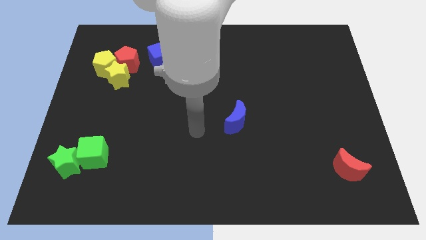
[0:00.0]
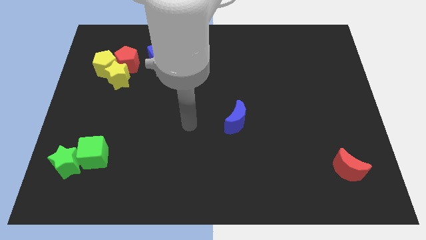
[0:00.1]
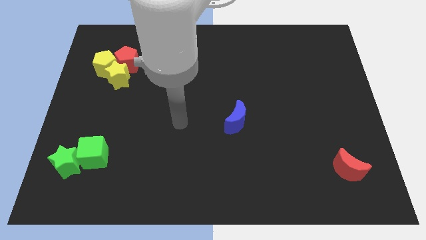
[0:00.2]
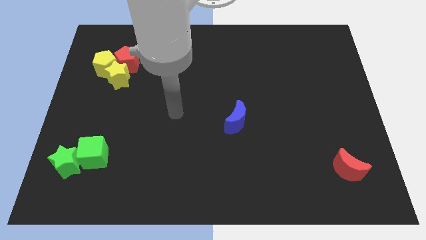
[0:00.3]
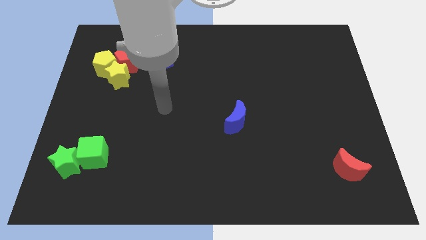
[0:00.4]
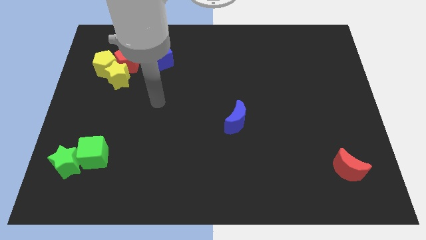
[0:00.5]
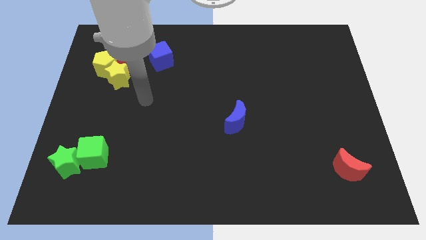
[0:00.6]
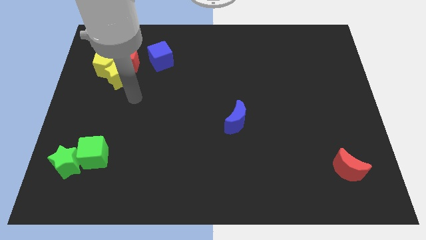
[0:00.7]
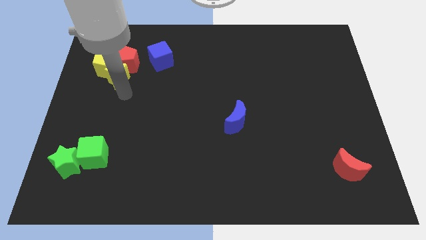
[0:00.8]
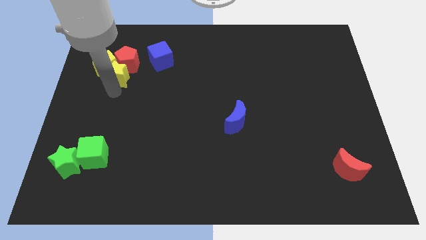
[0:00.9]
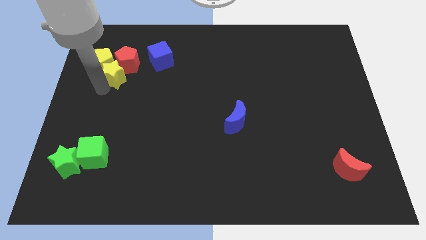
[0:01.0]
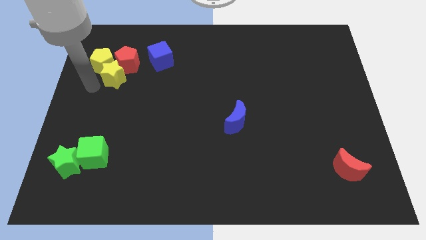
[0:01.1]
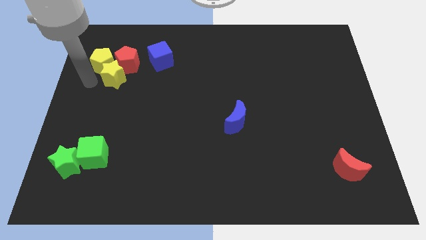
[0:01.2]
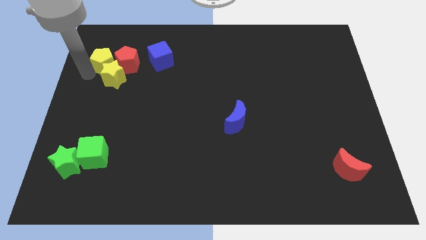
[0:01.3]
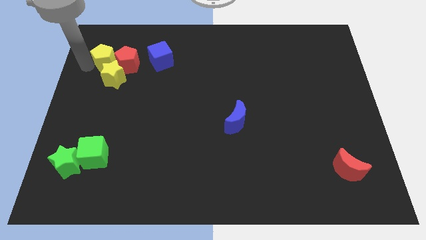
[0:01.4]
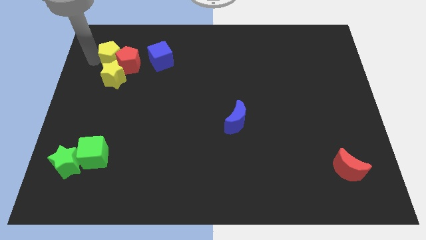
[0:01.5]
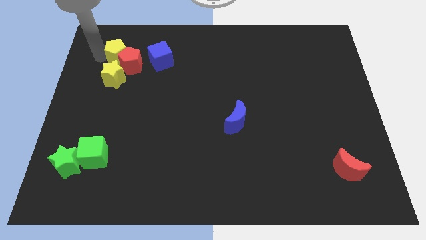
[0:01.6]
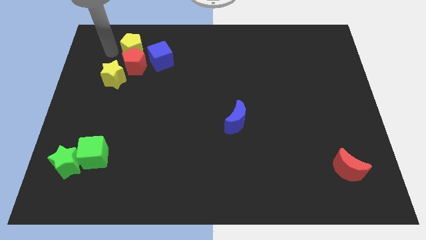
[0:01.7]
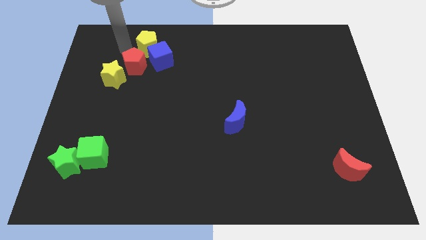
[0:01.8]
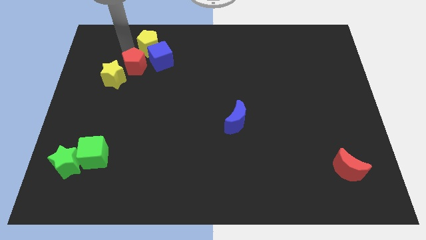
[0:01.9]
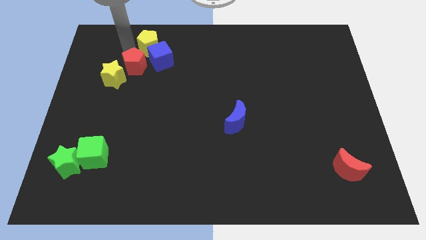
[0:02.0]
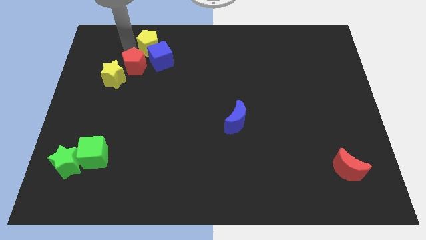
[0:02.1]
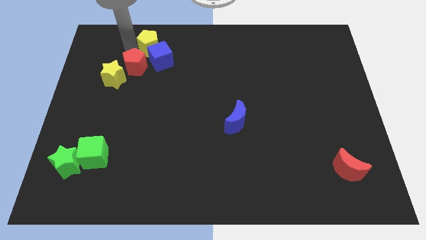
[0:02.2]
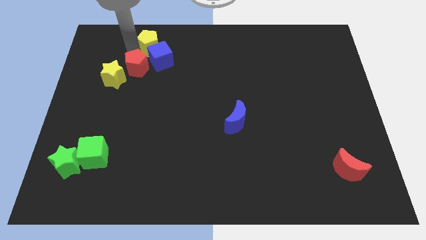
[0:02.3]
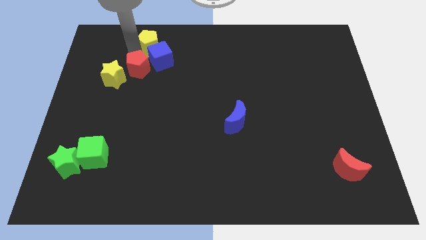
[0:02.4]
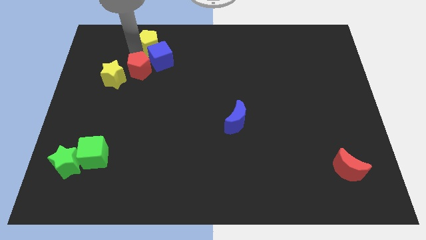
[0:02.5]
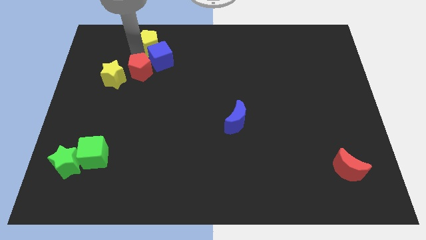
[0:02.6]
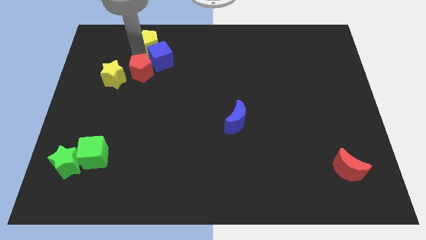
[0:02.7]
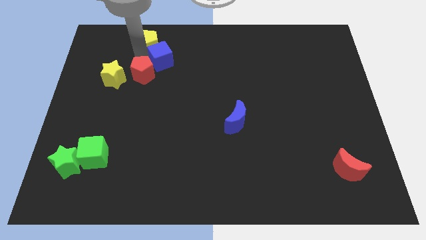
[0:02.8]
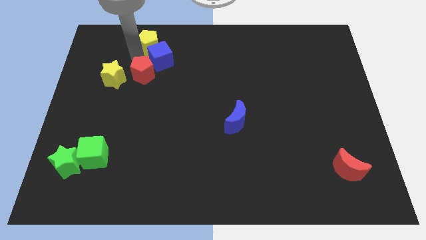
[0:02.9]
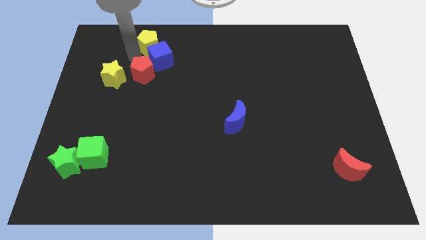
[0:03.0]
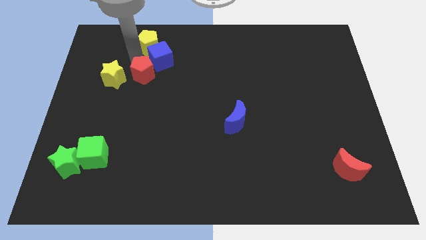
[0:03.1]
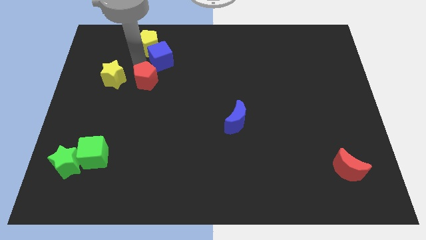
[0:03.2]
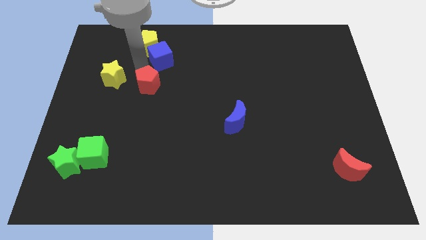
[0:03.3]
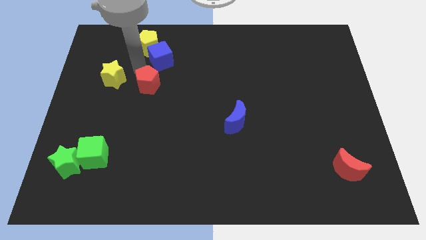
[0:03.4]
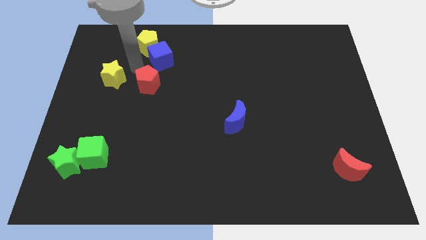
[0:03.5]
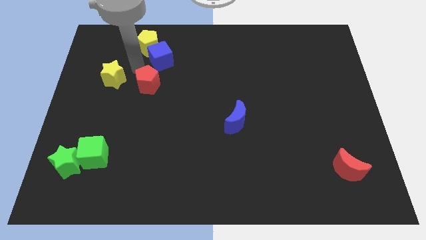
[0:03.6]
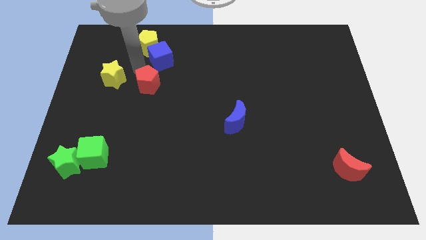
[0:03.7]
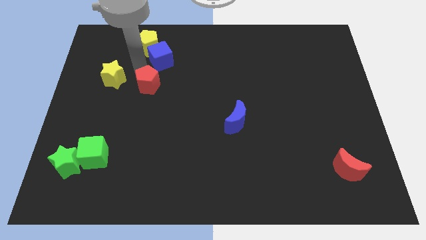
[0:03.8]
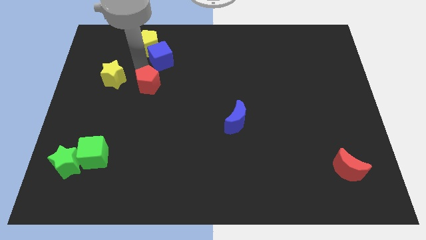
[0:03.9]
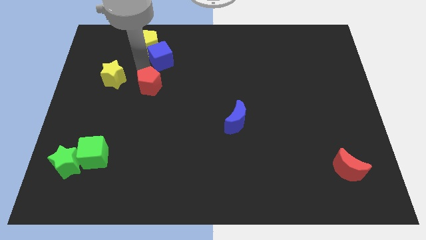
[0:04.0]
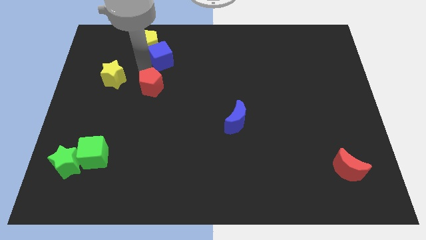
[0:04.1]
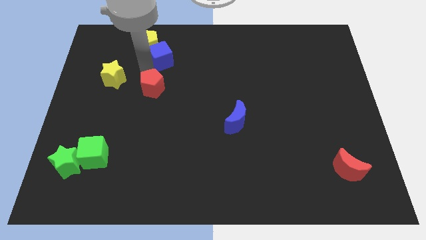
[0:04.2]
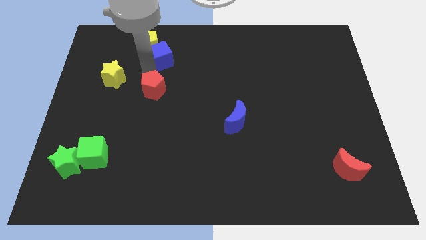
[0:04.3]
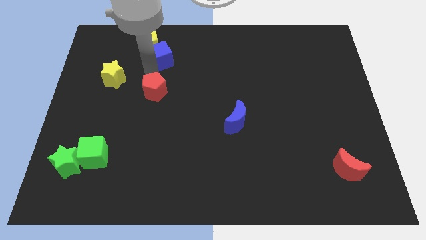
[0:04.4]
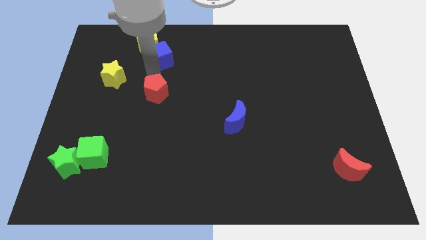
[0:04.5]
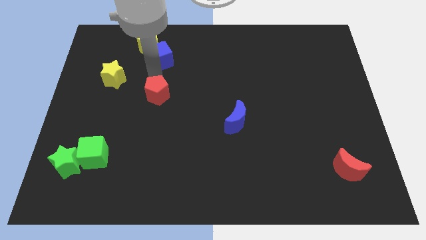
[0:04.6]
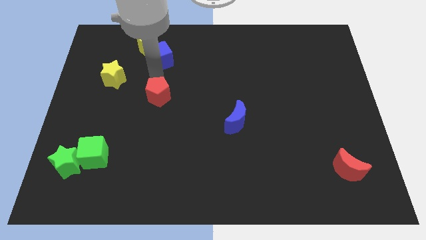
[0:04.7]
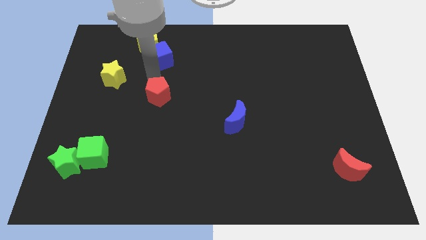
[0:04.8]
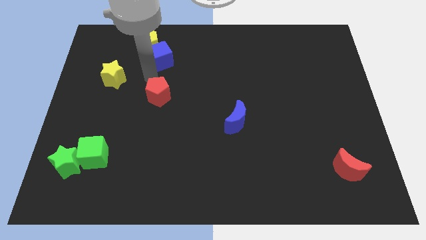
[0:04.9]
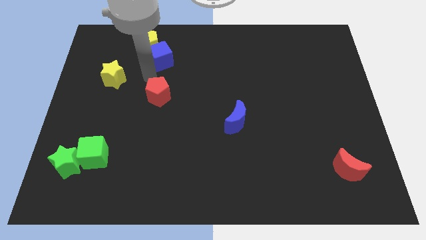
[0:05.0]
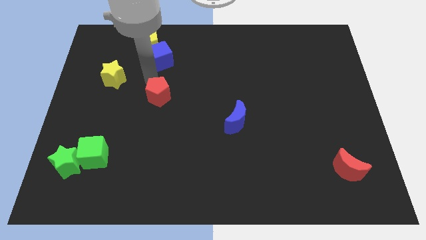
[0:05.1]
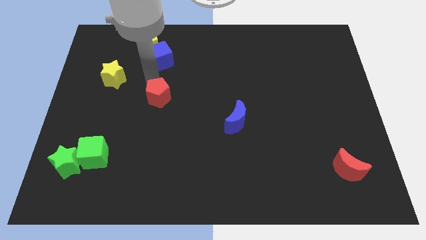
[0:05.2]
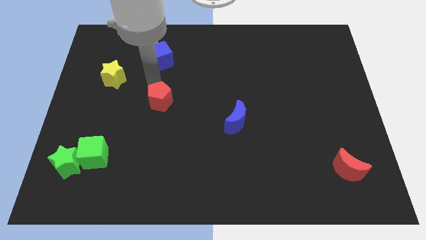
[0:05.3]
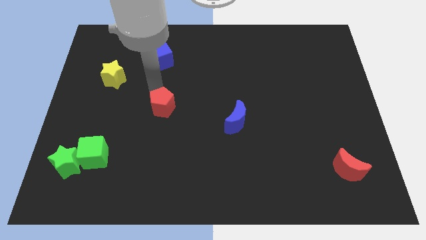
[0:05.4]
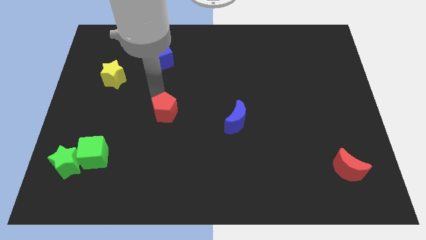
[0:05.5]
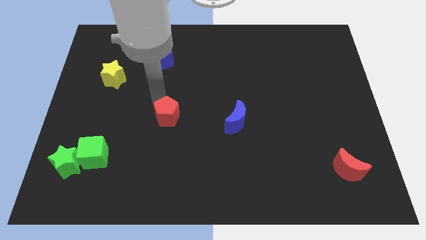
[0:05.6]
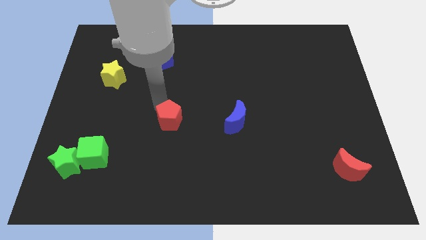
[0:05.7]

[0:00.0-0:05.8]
slide the red pentagon downwards and right

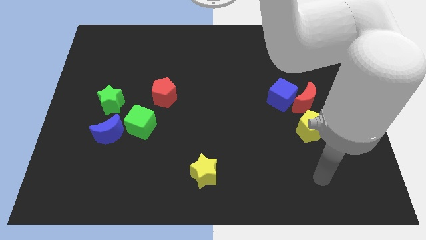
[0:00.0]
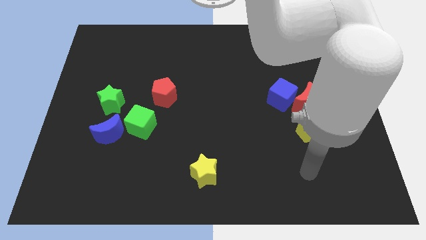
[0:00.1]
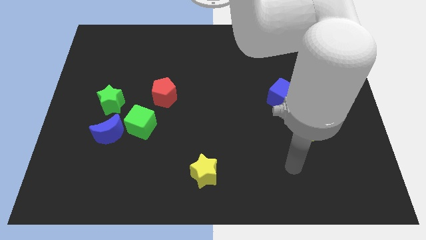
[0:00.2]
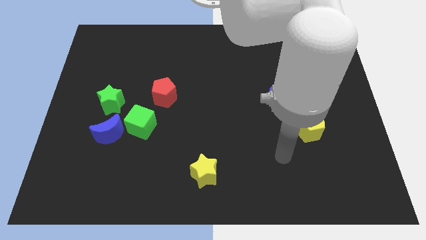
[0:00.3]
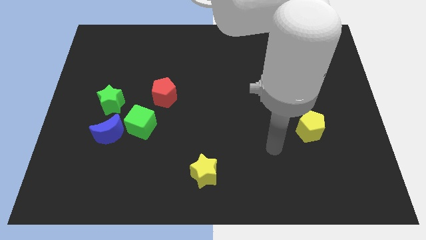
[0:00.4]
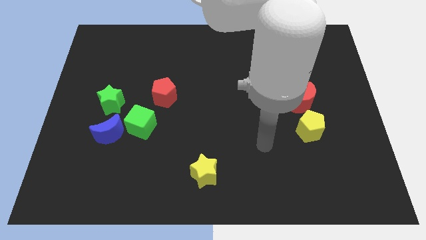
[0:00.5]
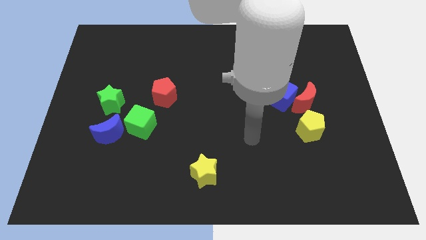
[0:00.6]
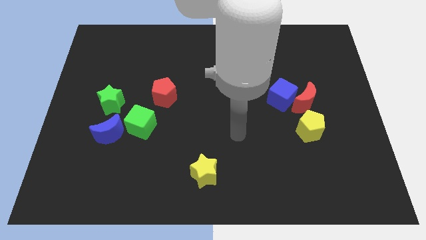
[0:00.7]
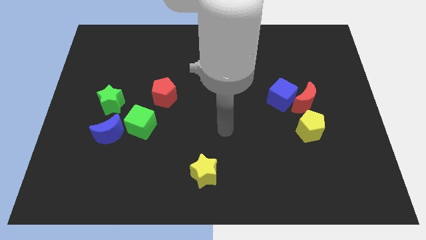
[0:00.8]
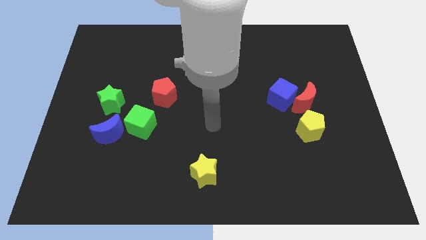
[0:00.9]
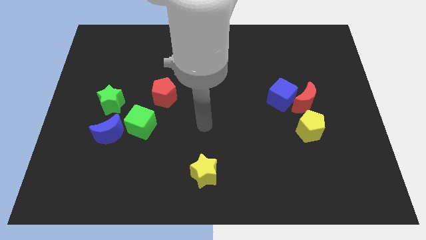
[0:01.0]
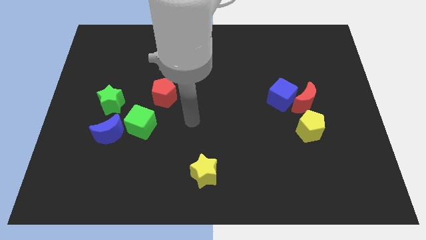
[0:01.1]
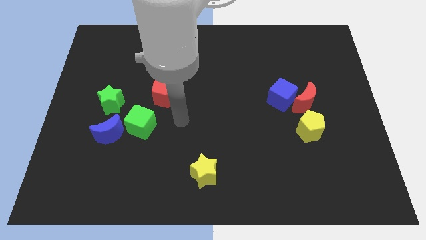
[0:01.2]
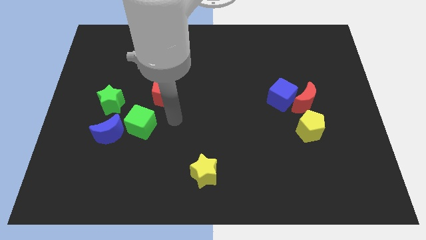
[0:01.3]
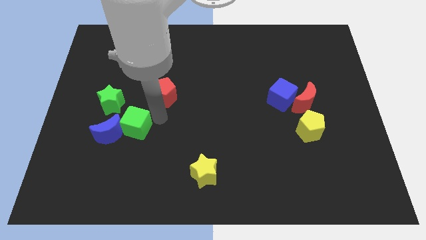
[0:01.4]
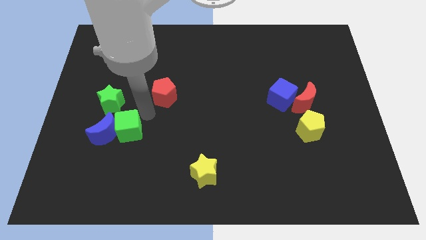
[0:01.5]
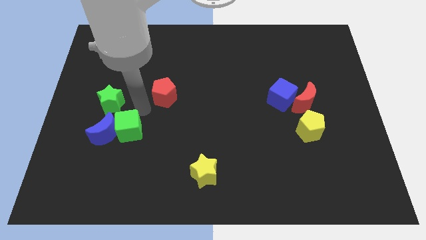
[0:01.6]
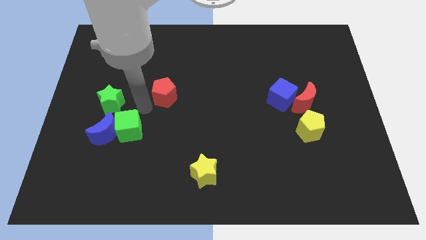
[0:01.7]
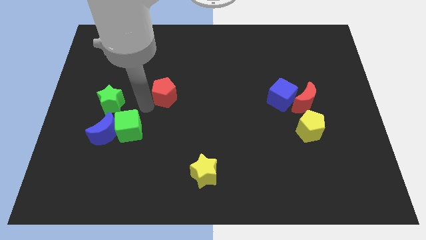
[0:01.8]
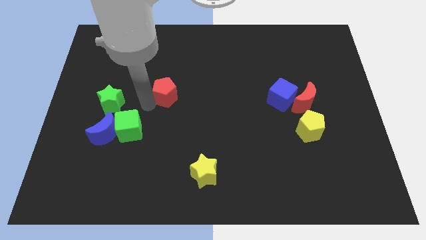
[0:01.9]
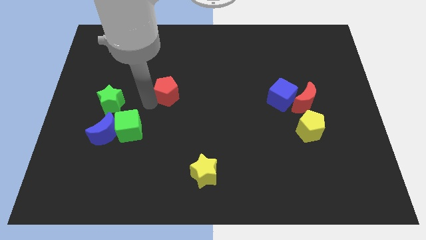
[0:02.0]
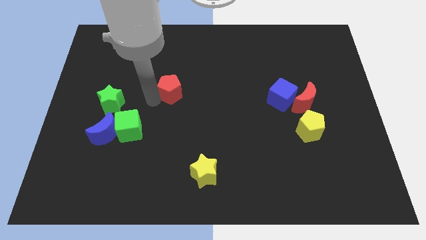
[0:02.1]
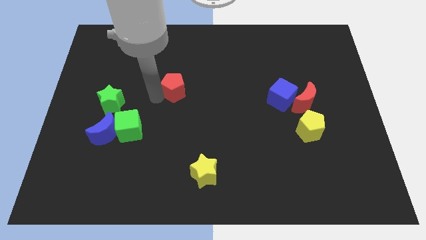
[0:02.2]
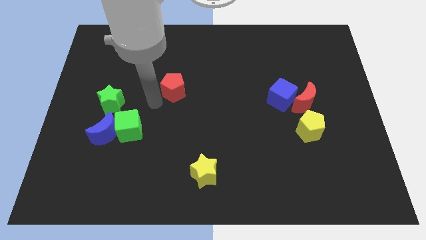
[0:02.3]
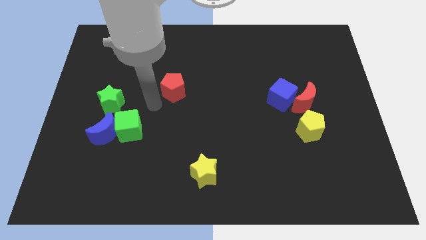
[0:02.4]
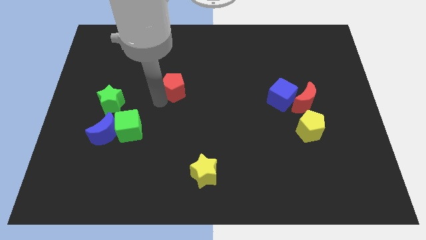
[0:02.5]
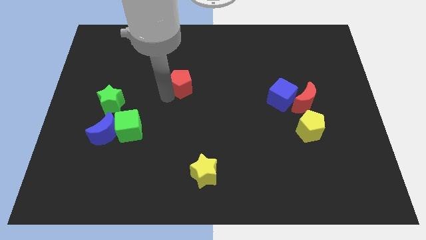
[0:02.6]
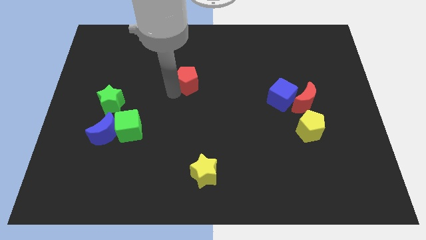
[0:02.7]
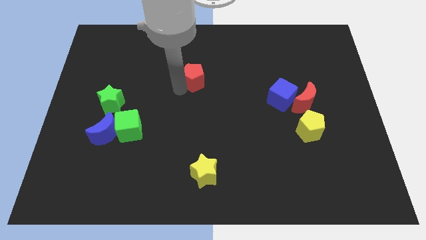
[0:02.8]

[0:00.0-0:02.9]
move the red pentagon upwards and then right somewhat
